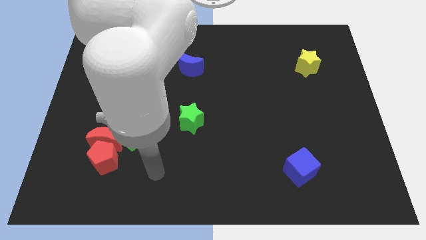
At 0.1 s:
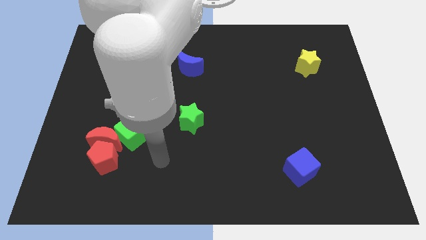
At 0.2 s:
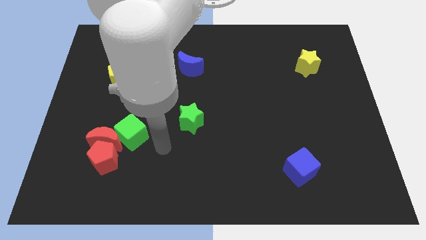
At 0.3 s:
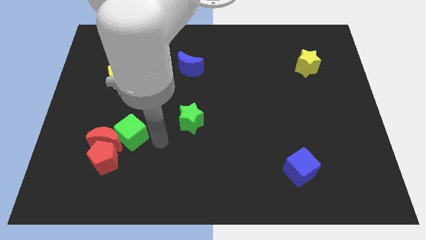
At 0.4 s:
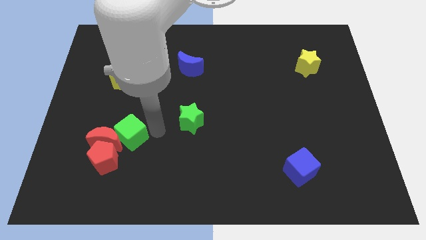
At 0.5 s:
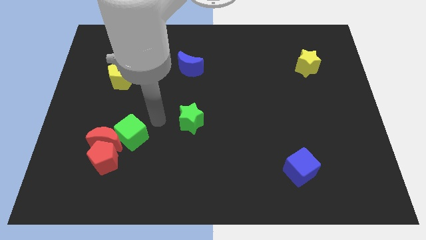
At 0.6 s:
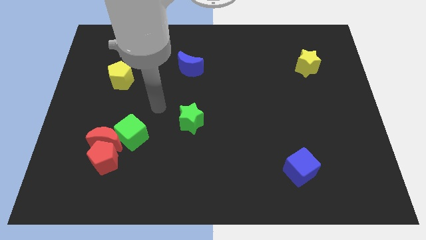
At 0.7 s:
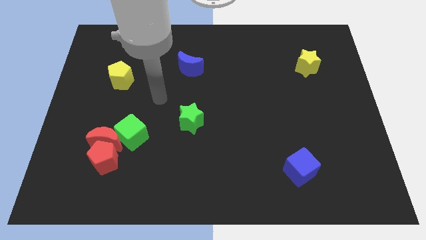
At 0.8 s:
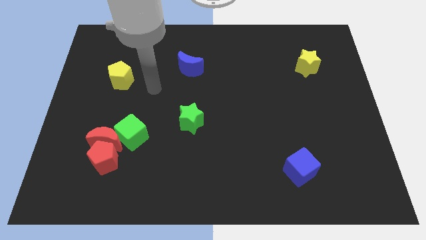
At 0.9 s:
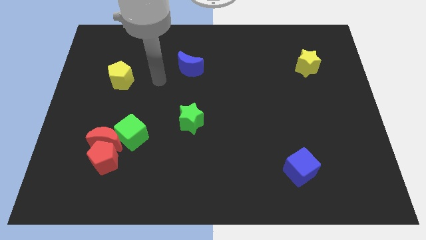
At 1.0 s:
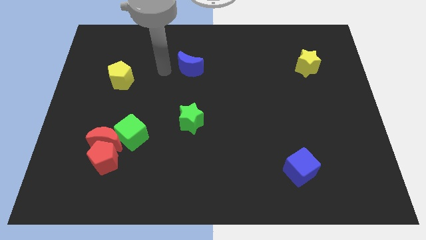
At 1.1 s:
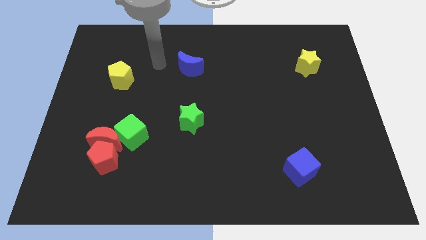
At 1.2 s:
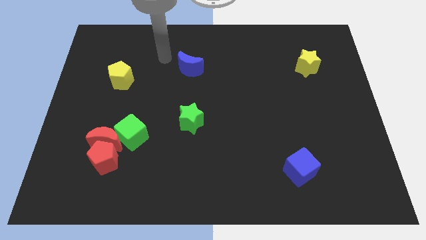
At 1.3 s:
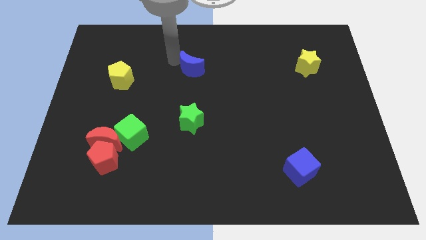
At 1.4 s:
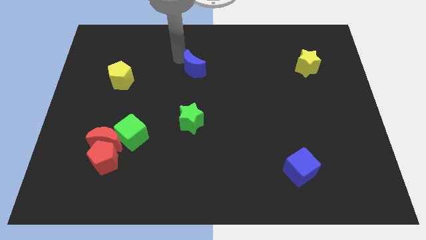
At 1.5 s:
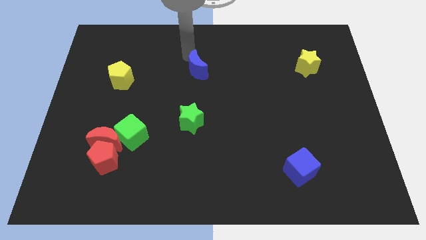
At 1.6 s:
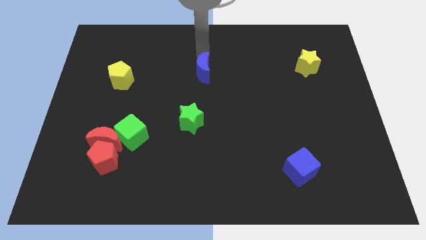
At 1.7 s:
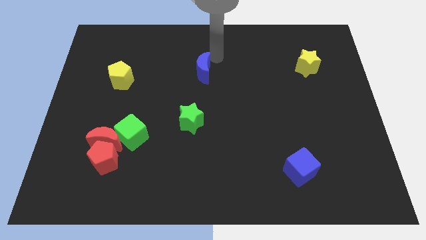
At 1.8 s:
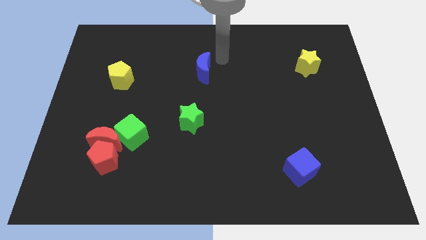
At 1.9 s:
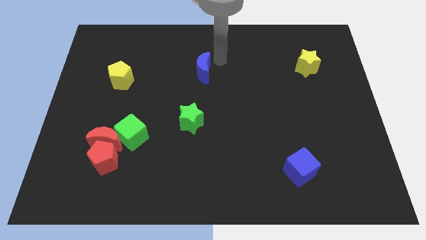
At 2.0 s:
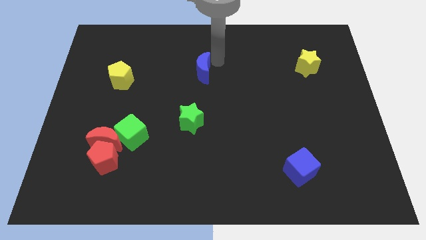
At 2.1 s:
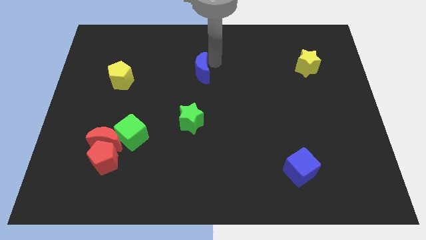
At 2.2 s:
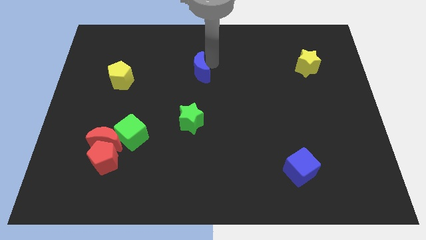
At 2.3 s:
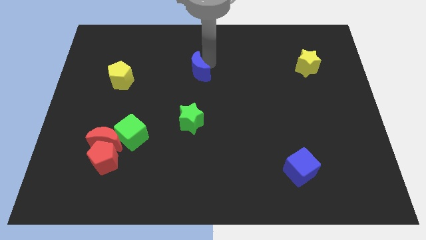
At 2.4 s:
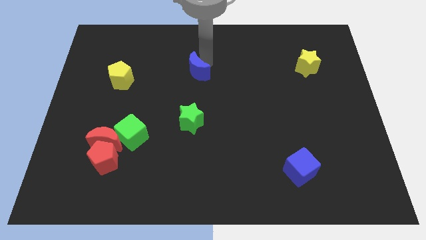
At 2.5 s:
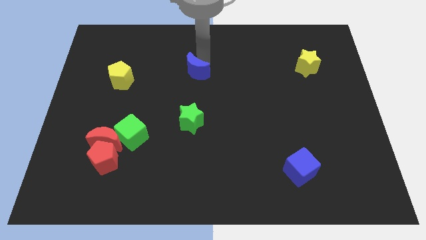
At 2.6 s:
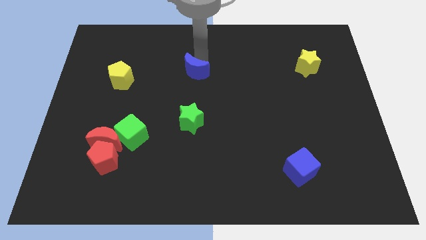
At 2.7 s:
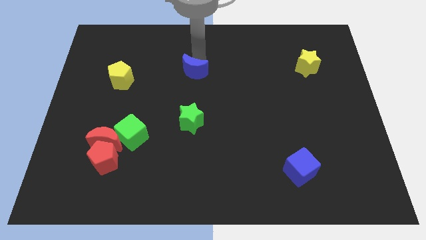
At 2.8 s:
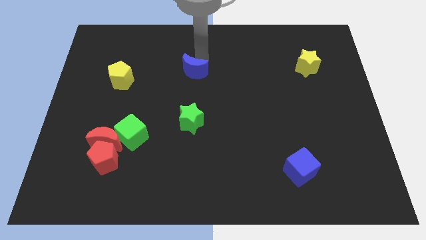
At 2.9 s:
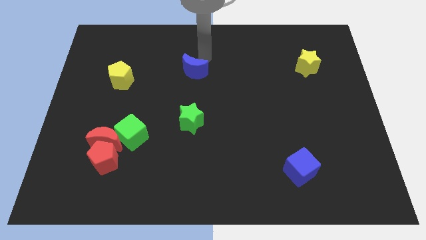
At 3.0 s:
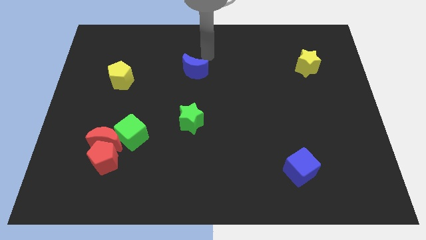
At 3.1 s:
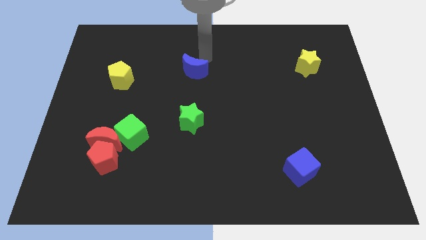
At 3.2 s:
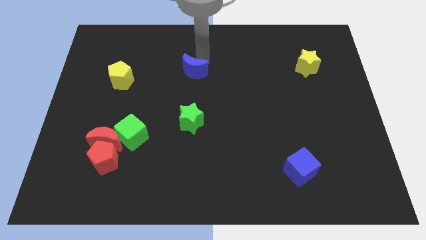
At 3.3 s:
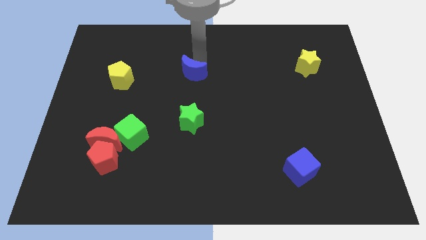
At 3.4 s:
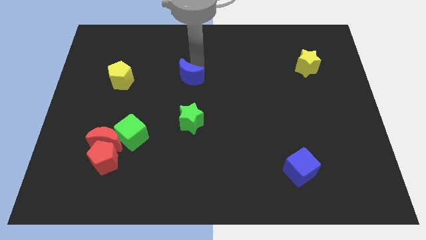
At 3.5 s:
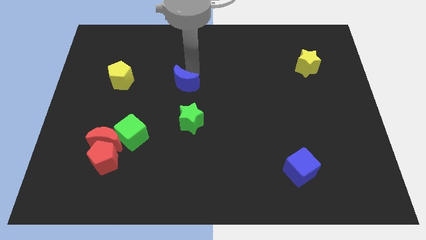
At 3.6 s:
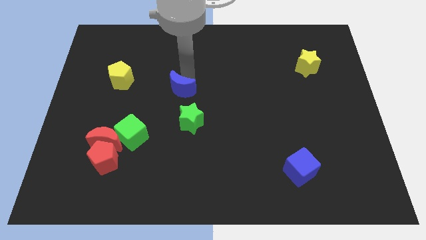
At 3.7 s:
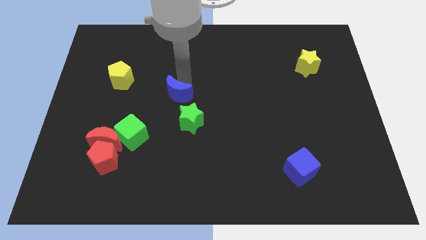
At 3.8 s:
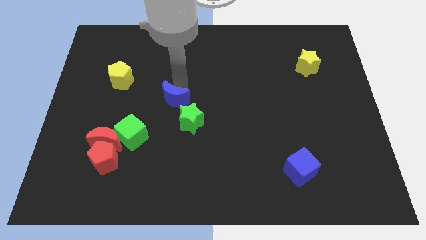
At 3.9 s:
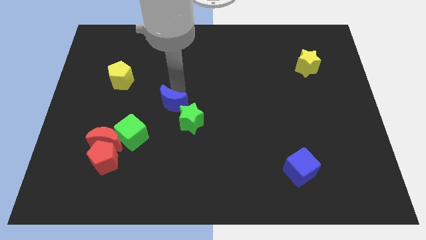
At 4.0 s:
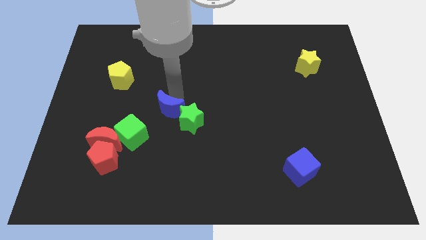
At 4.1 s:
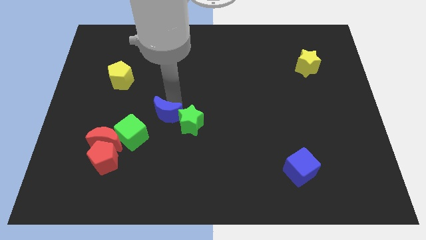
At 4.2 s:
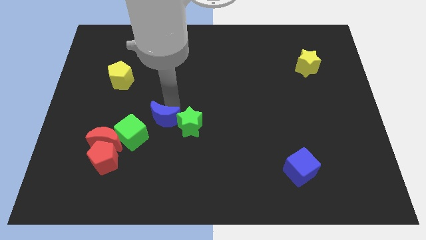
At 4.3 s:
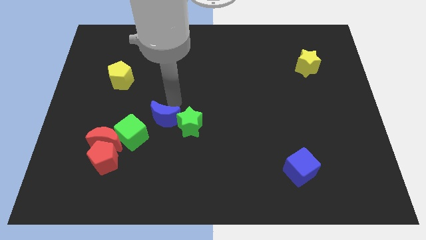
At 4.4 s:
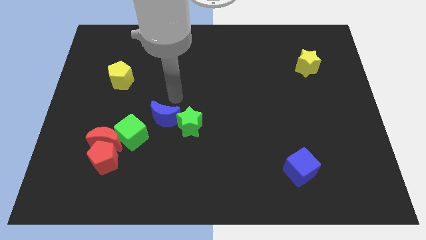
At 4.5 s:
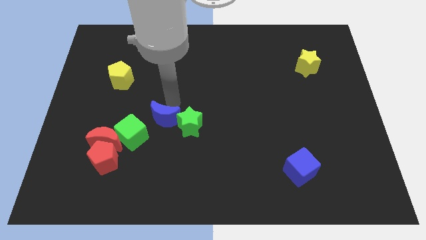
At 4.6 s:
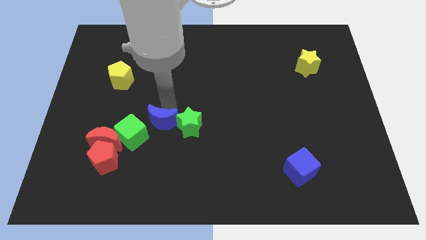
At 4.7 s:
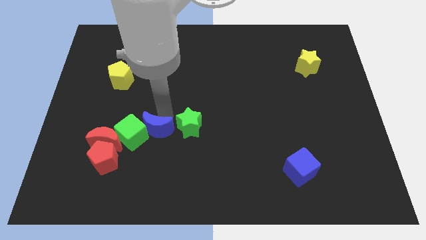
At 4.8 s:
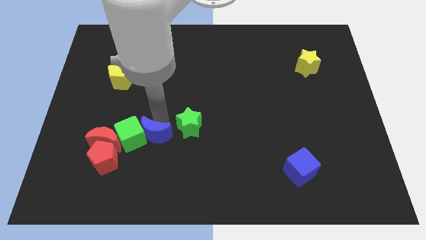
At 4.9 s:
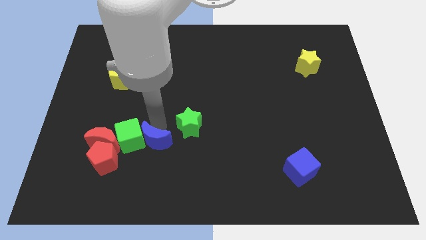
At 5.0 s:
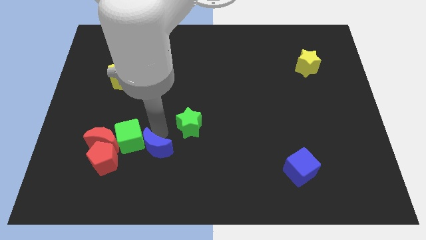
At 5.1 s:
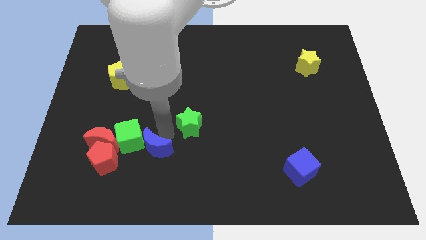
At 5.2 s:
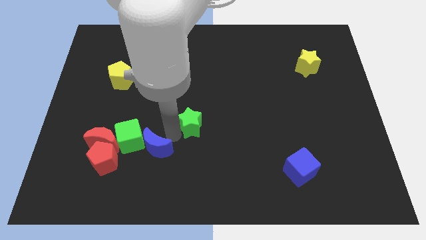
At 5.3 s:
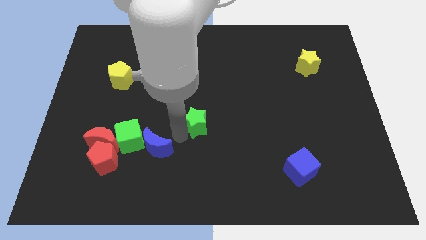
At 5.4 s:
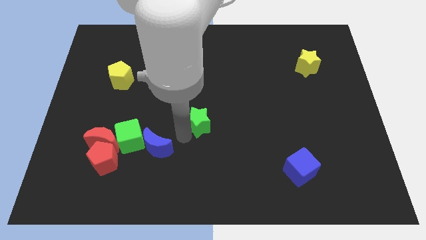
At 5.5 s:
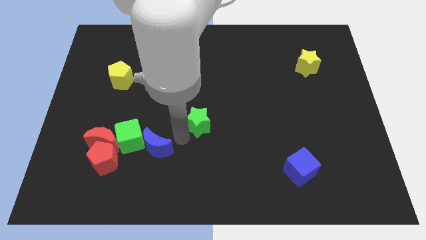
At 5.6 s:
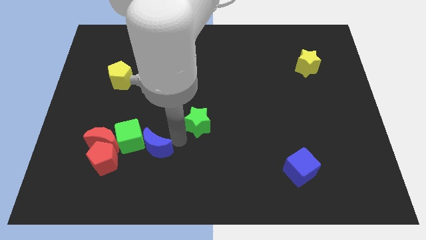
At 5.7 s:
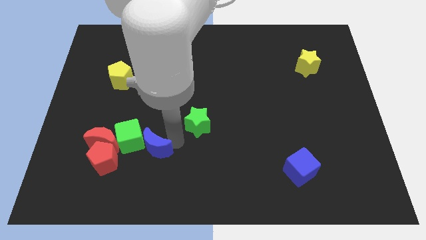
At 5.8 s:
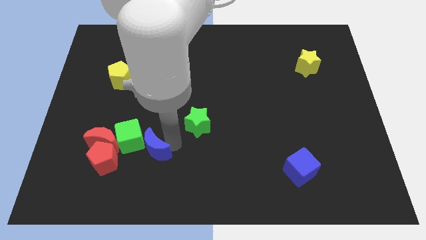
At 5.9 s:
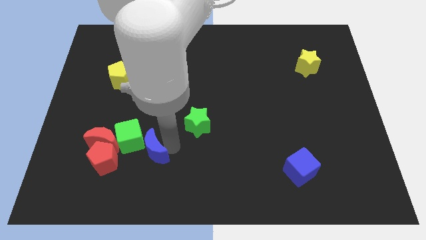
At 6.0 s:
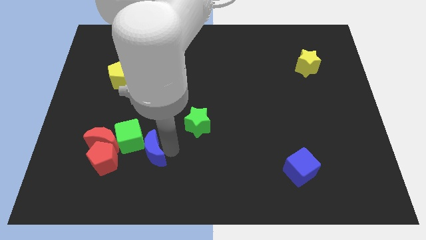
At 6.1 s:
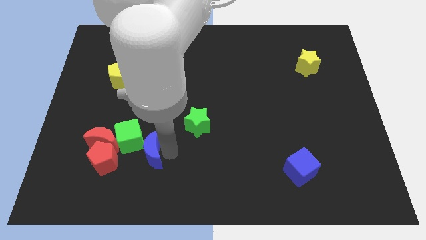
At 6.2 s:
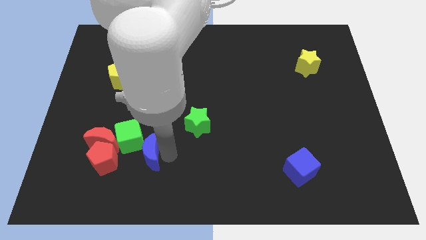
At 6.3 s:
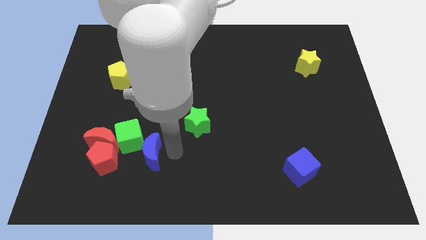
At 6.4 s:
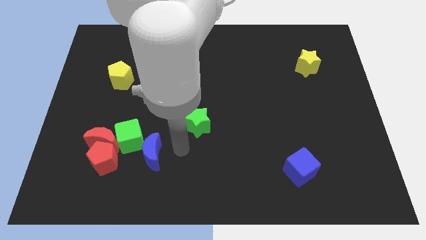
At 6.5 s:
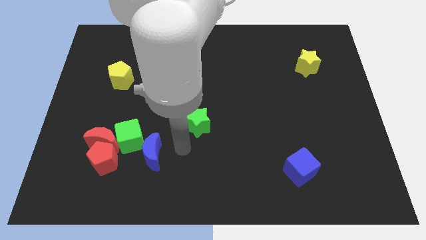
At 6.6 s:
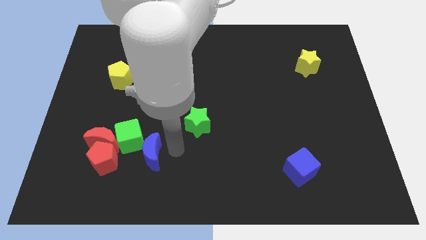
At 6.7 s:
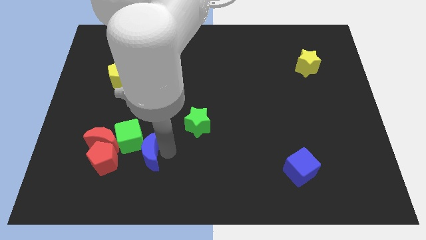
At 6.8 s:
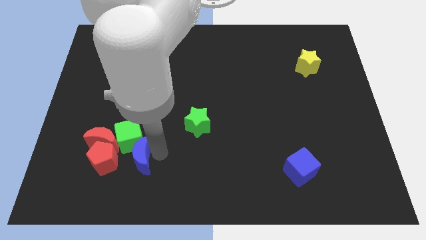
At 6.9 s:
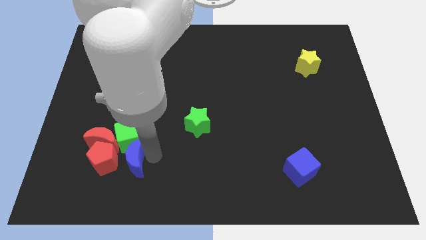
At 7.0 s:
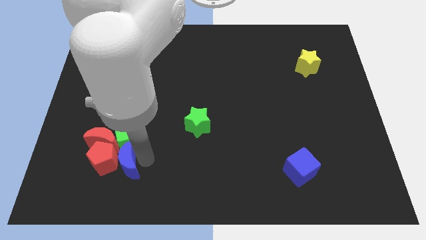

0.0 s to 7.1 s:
move the blue moon to the red pentagon
